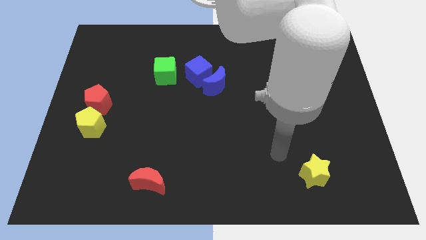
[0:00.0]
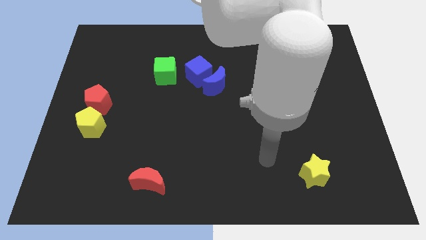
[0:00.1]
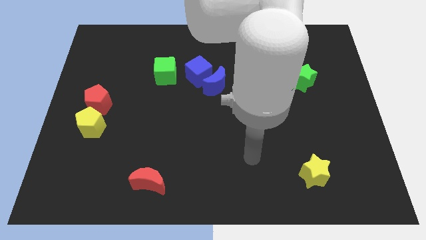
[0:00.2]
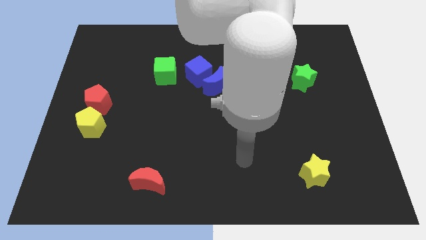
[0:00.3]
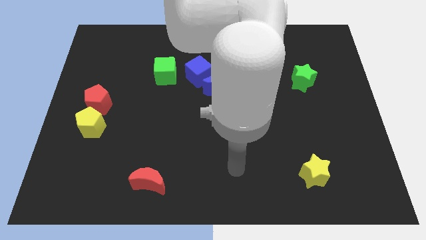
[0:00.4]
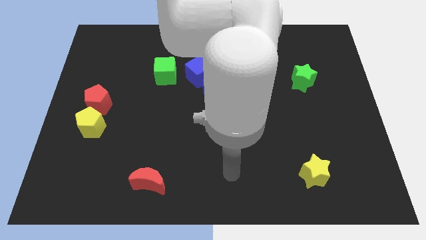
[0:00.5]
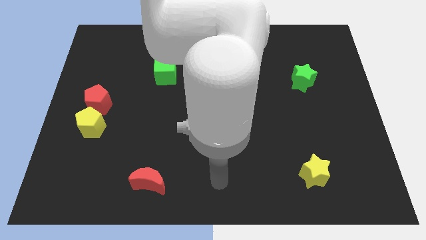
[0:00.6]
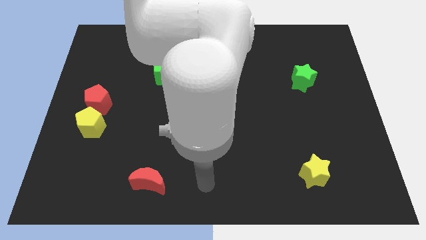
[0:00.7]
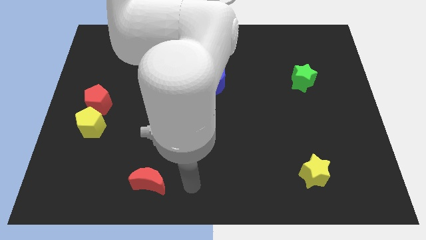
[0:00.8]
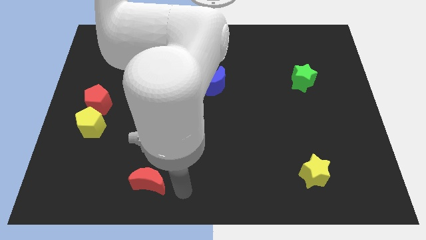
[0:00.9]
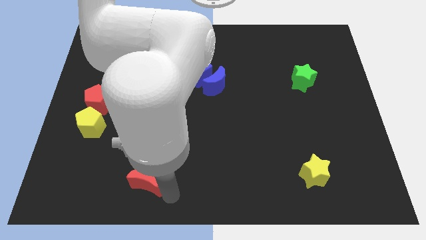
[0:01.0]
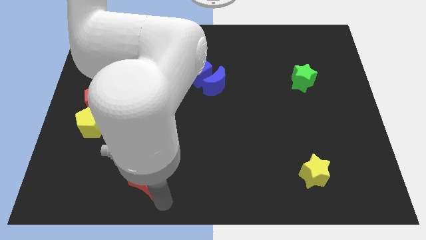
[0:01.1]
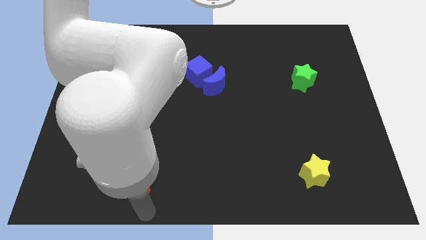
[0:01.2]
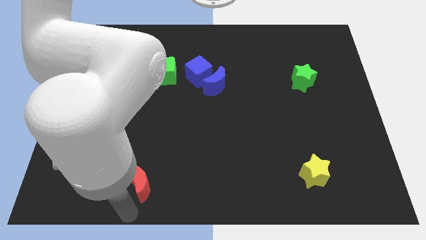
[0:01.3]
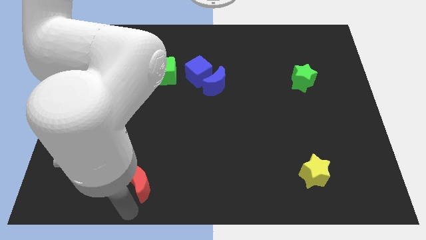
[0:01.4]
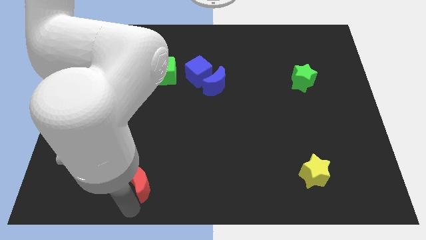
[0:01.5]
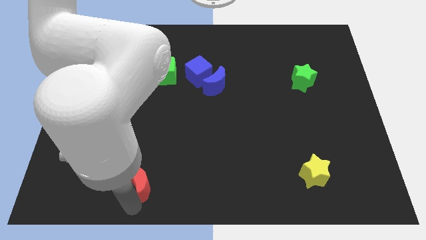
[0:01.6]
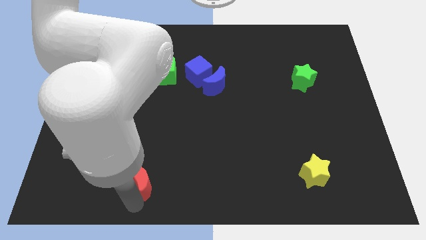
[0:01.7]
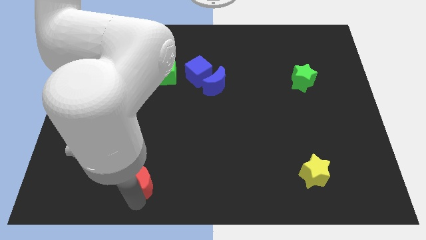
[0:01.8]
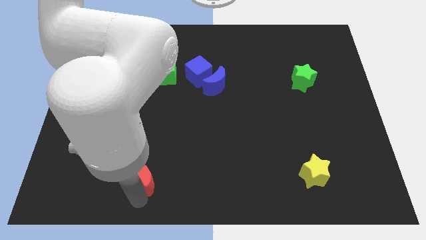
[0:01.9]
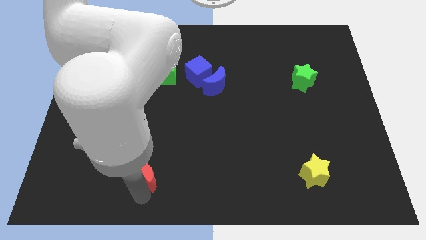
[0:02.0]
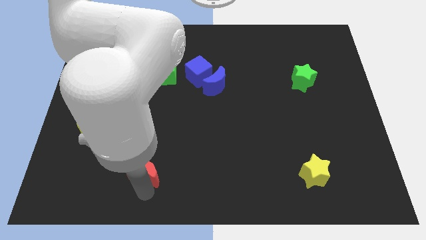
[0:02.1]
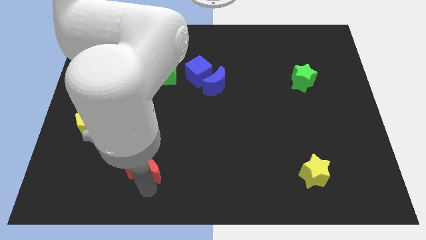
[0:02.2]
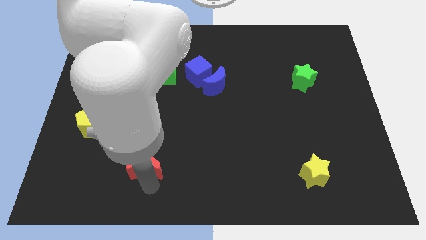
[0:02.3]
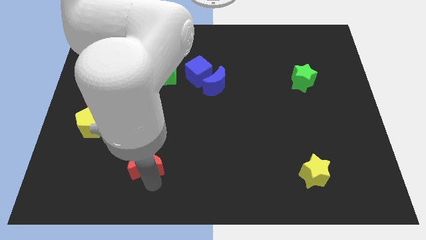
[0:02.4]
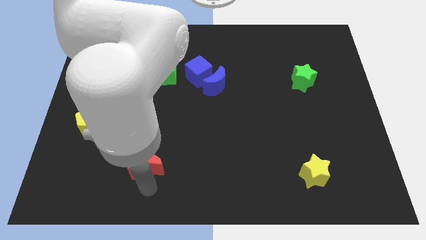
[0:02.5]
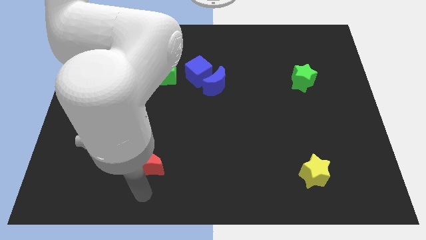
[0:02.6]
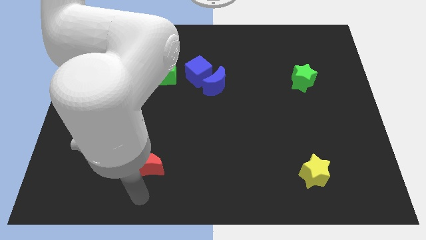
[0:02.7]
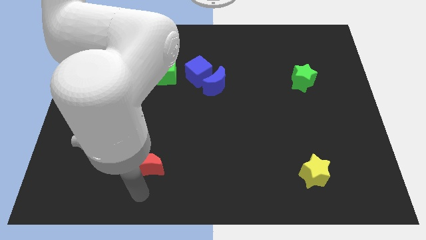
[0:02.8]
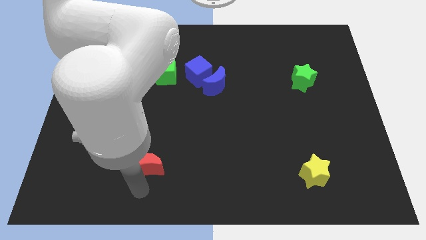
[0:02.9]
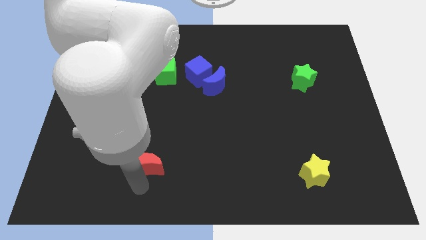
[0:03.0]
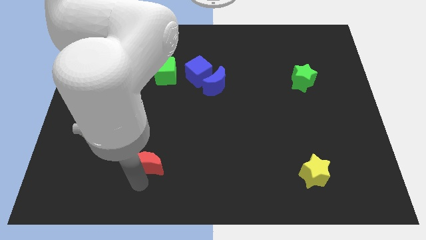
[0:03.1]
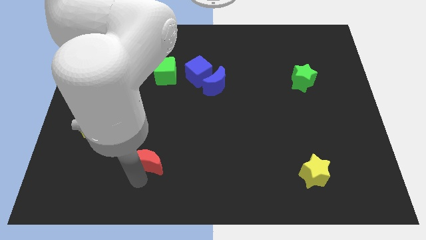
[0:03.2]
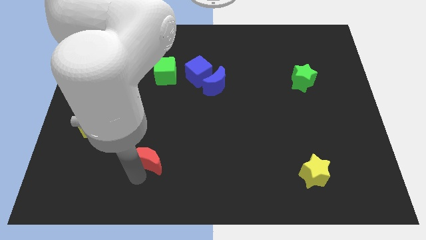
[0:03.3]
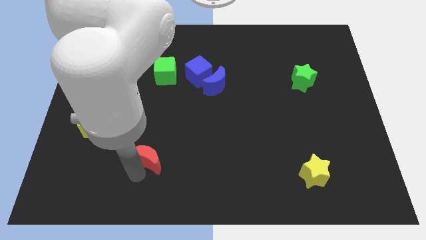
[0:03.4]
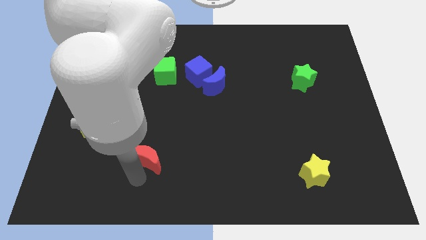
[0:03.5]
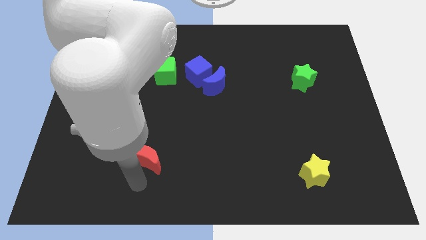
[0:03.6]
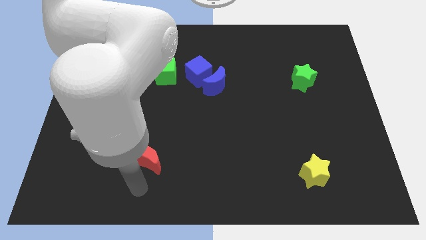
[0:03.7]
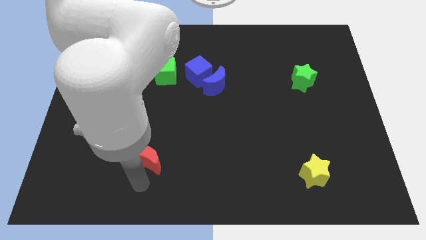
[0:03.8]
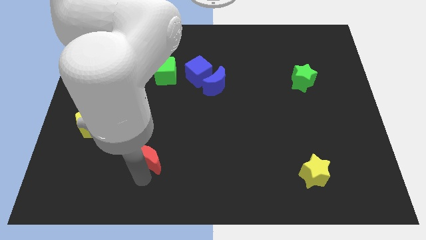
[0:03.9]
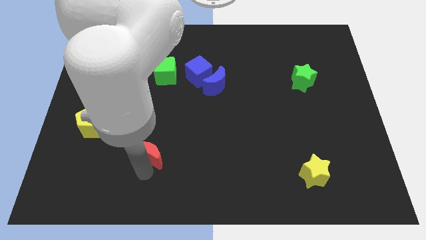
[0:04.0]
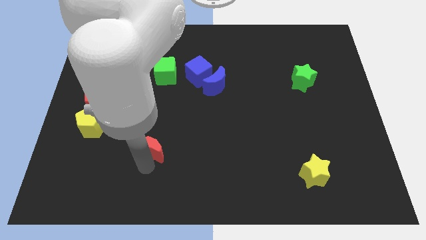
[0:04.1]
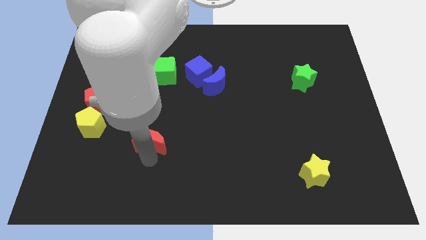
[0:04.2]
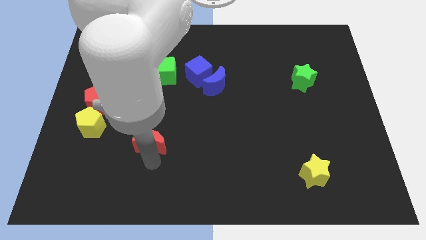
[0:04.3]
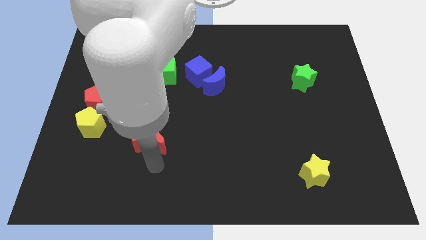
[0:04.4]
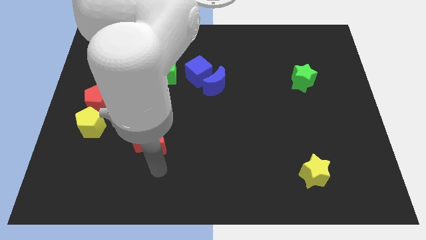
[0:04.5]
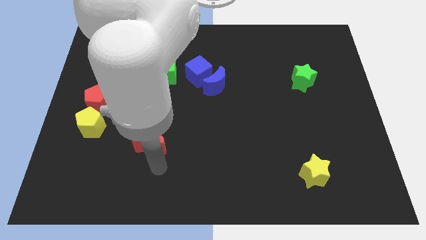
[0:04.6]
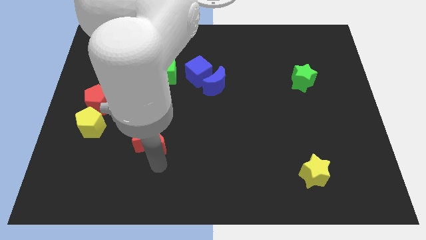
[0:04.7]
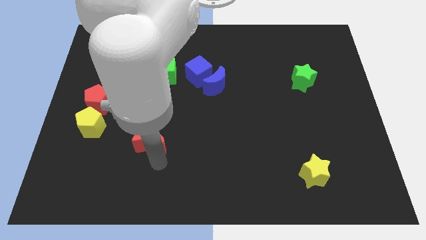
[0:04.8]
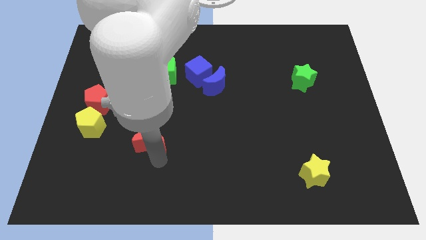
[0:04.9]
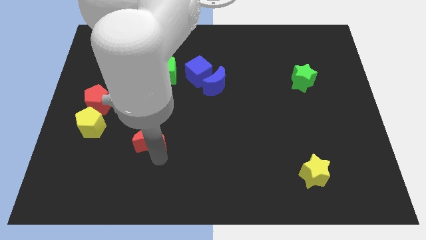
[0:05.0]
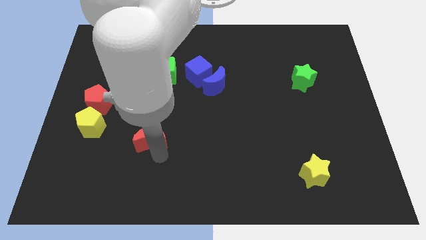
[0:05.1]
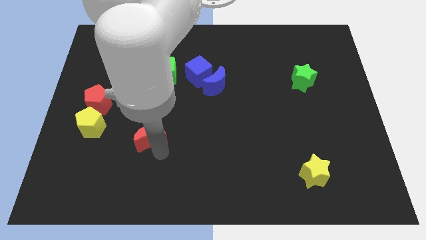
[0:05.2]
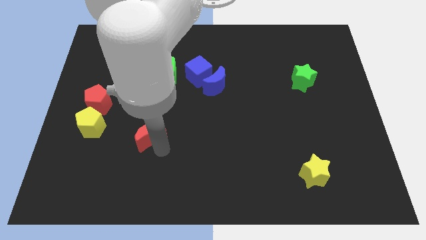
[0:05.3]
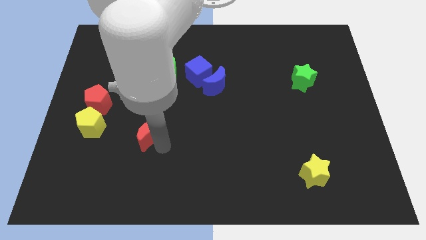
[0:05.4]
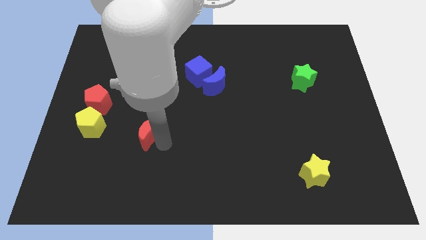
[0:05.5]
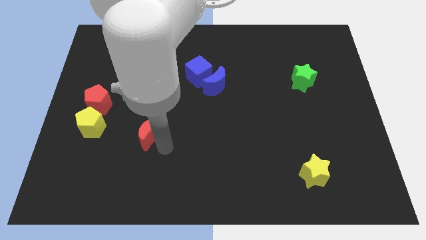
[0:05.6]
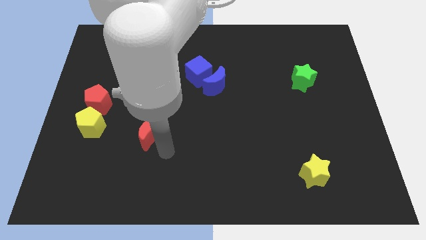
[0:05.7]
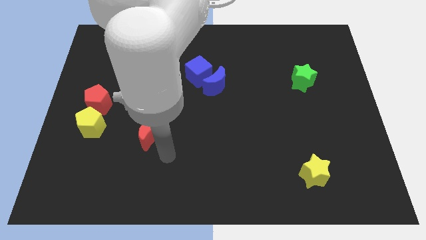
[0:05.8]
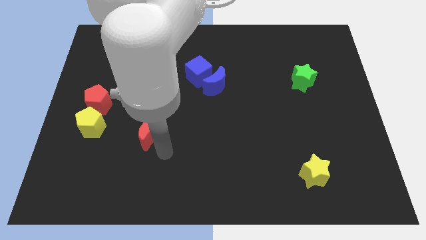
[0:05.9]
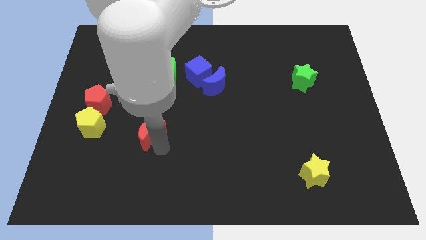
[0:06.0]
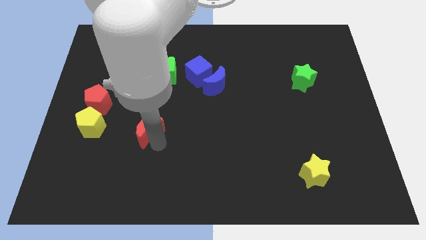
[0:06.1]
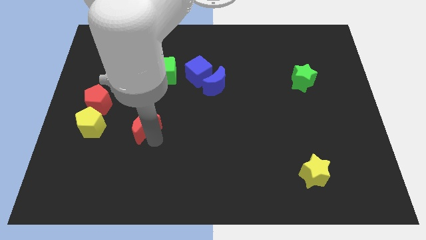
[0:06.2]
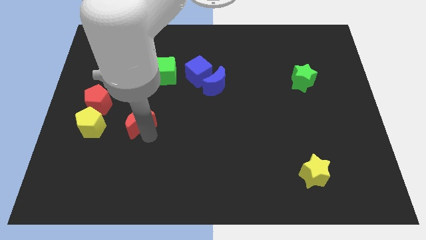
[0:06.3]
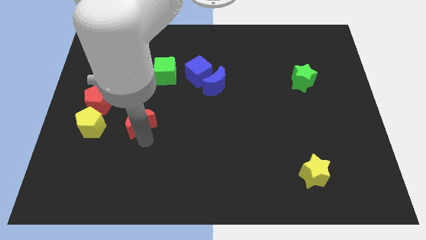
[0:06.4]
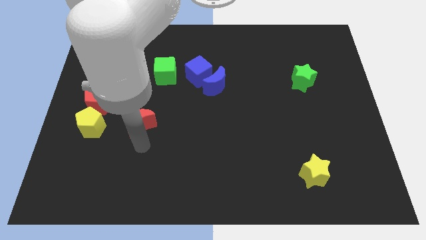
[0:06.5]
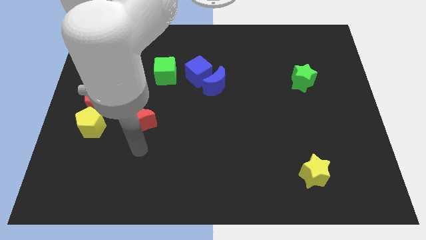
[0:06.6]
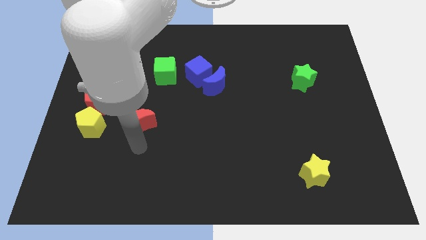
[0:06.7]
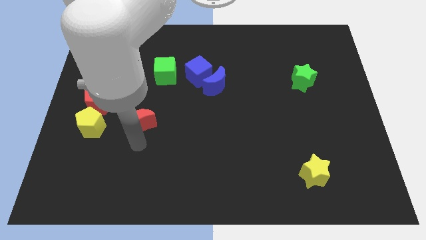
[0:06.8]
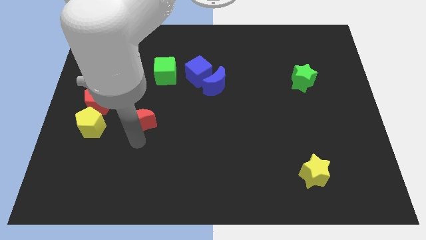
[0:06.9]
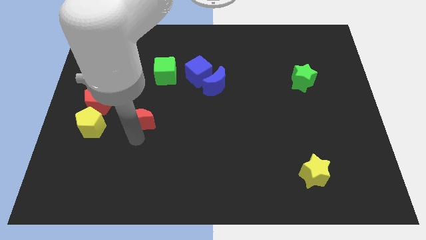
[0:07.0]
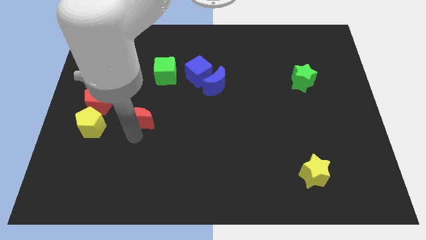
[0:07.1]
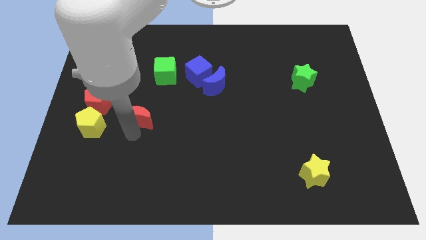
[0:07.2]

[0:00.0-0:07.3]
move the red moon to the right side of the red pentagon
